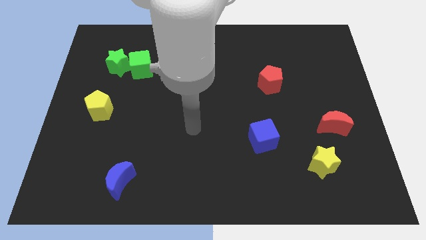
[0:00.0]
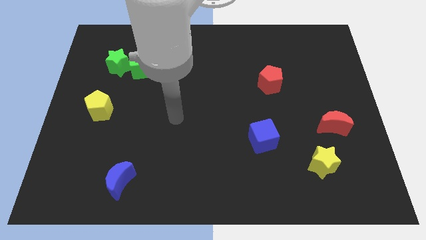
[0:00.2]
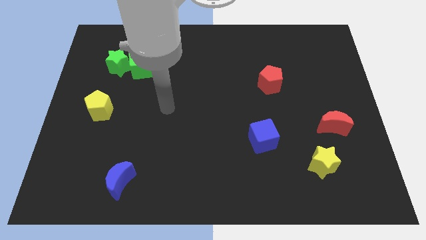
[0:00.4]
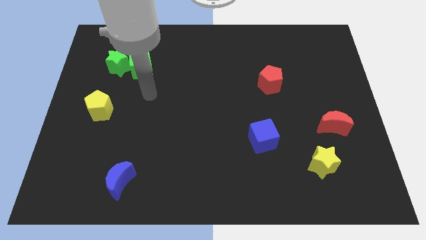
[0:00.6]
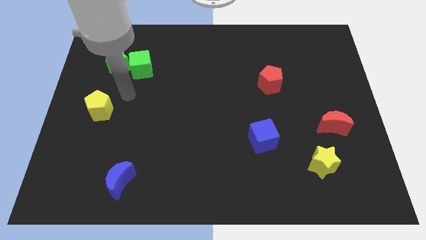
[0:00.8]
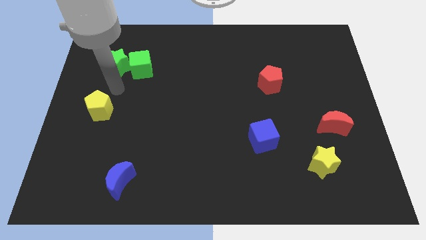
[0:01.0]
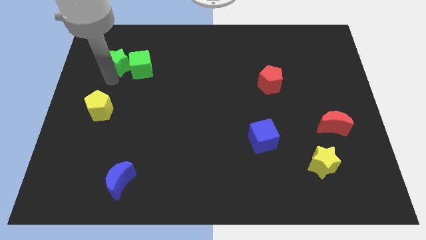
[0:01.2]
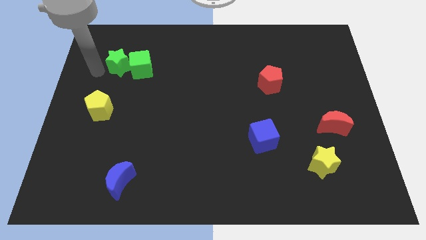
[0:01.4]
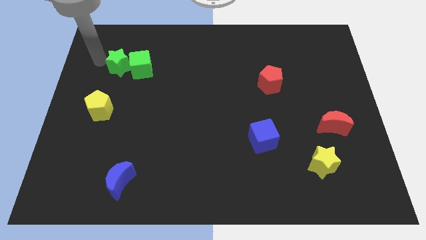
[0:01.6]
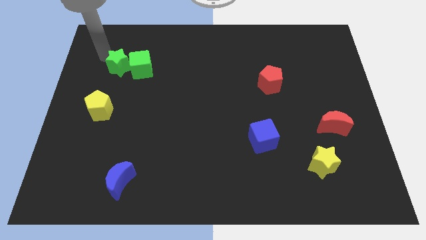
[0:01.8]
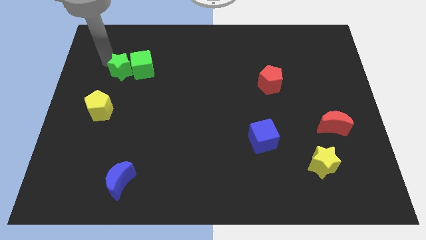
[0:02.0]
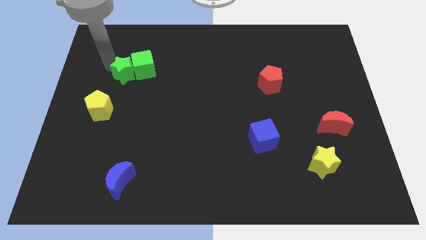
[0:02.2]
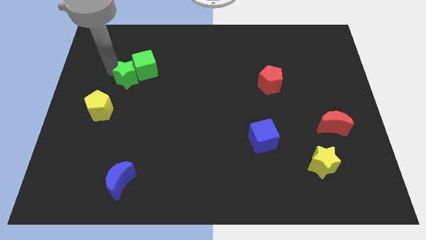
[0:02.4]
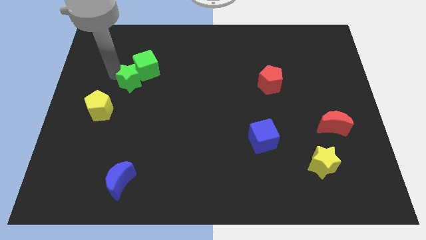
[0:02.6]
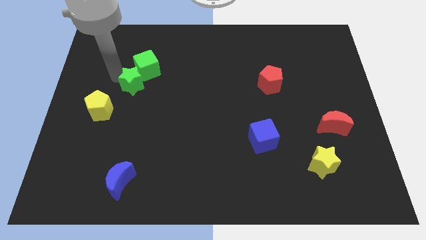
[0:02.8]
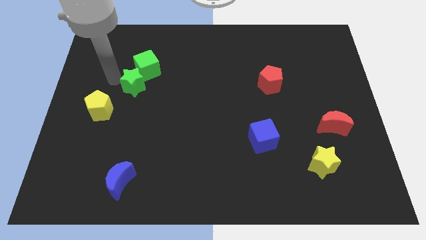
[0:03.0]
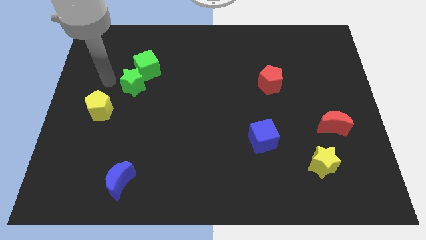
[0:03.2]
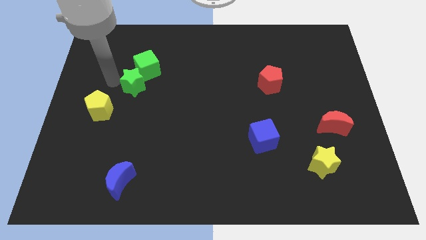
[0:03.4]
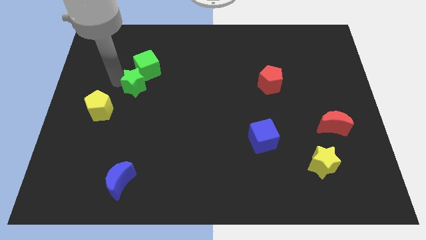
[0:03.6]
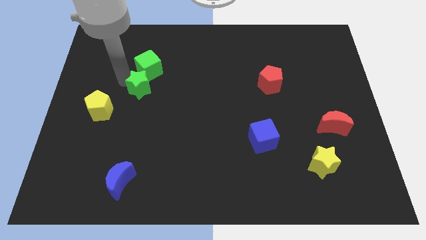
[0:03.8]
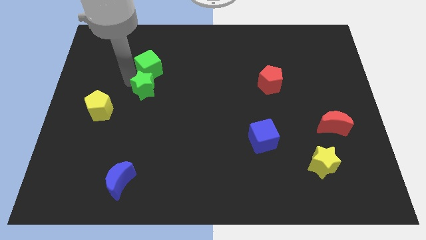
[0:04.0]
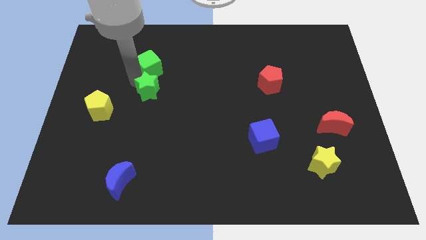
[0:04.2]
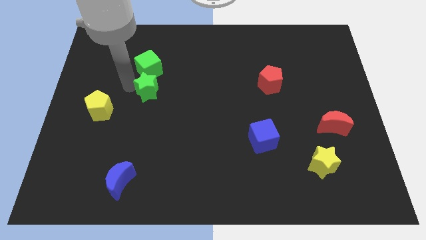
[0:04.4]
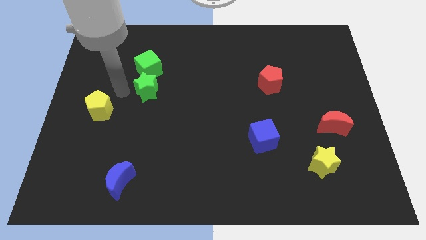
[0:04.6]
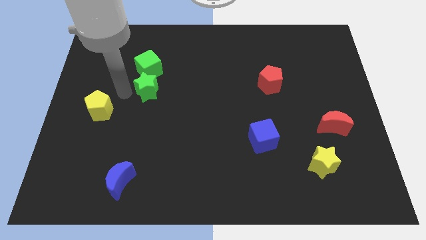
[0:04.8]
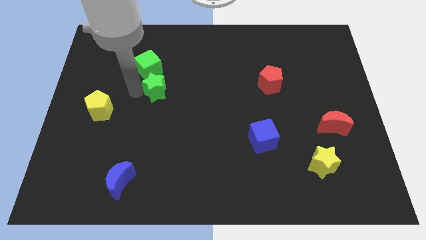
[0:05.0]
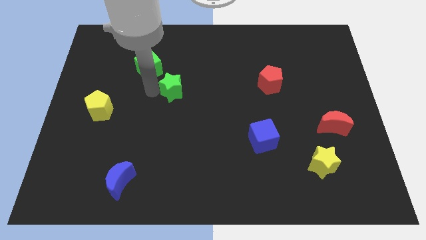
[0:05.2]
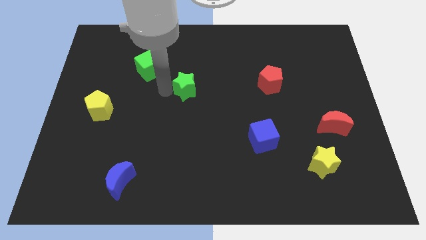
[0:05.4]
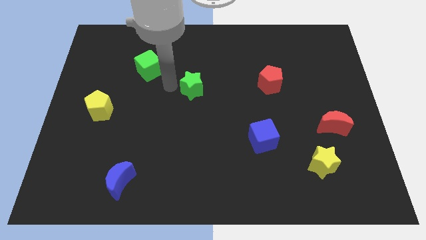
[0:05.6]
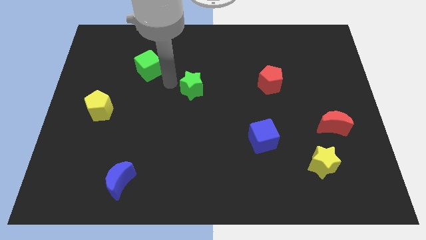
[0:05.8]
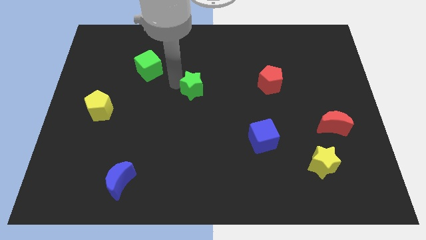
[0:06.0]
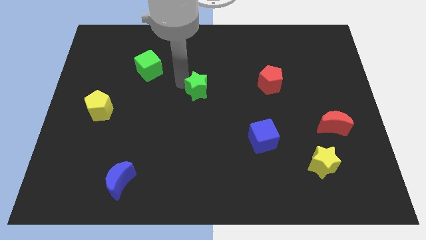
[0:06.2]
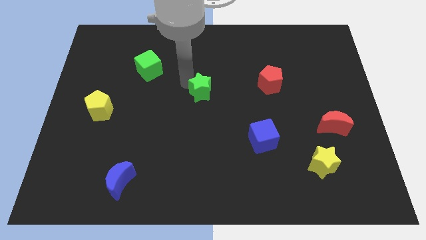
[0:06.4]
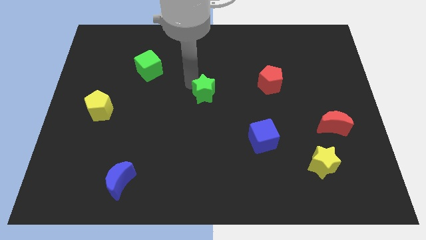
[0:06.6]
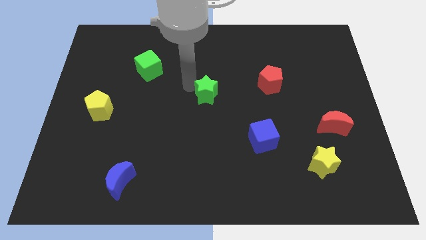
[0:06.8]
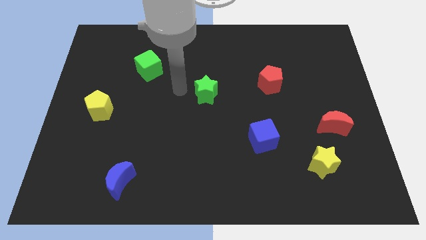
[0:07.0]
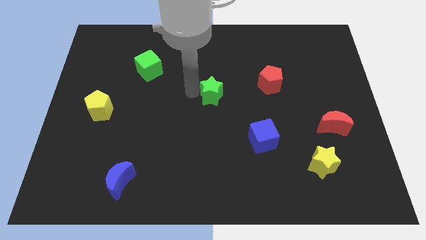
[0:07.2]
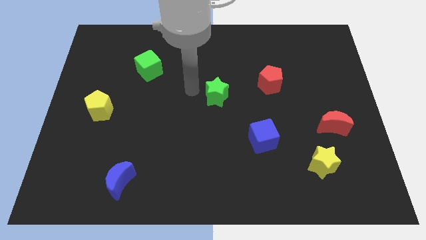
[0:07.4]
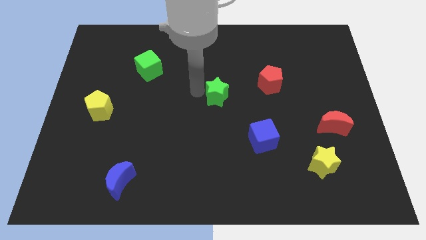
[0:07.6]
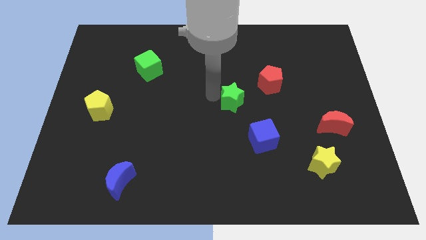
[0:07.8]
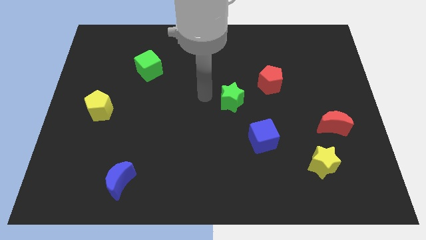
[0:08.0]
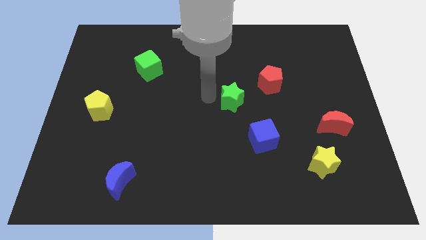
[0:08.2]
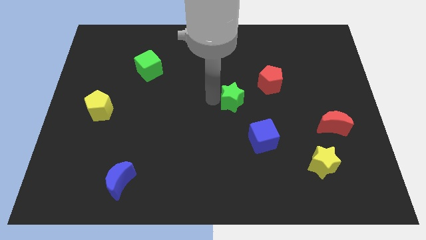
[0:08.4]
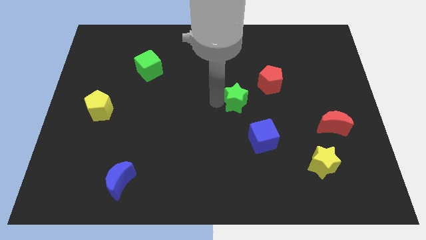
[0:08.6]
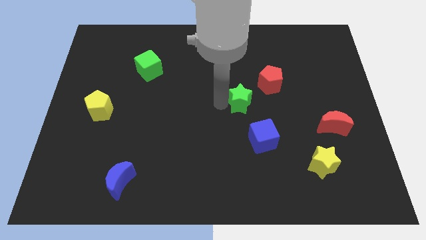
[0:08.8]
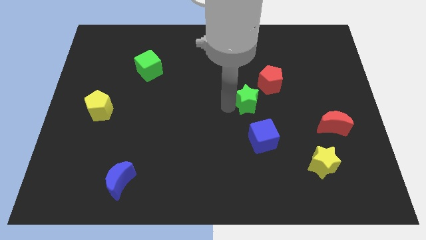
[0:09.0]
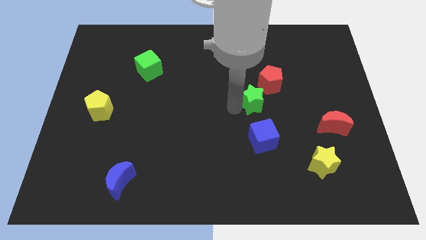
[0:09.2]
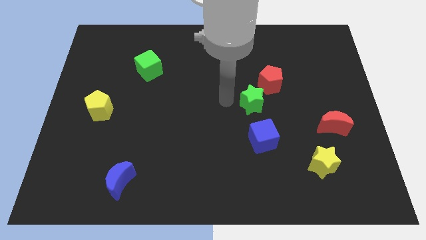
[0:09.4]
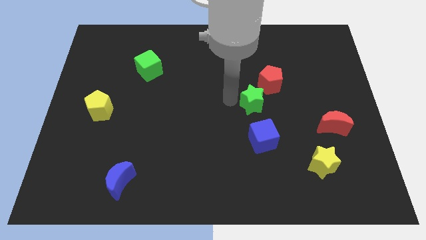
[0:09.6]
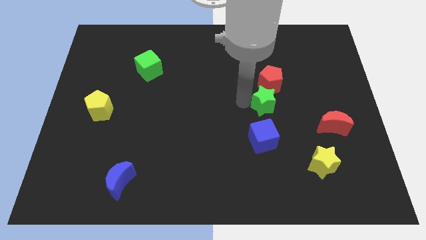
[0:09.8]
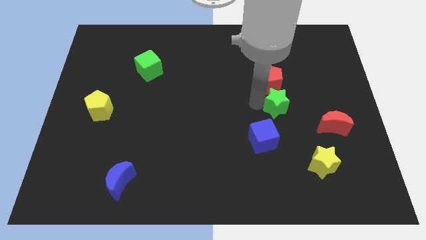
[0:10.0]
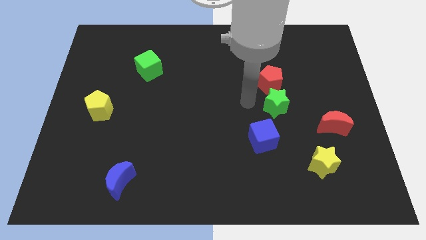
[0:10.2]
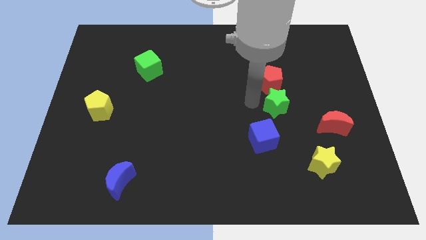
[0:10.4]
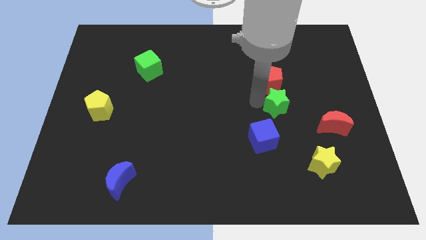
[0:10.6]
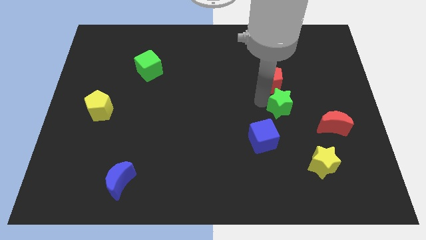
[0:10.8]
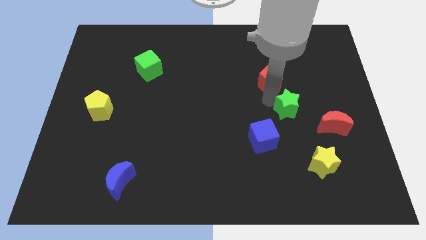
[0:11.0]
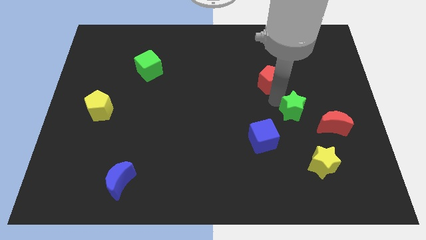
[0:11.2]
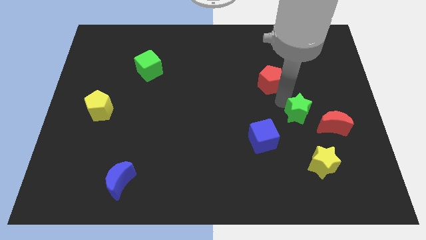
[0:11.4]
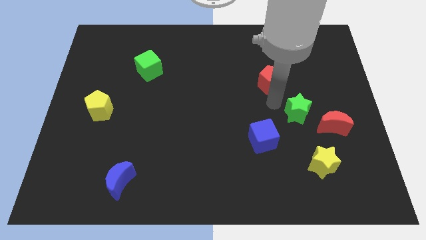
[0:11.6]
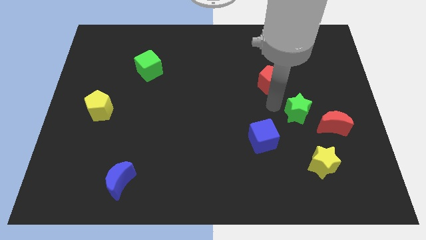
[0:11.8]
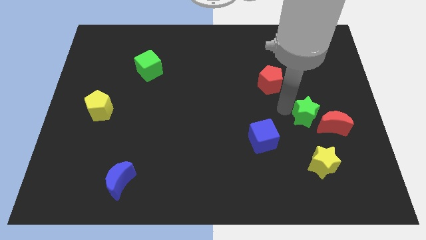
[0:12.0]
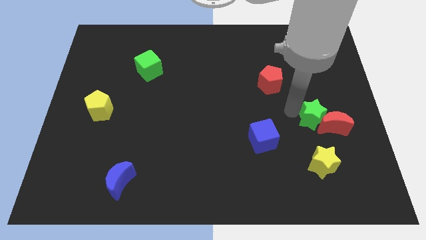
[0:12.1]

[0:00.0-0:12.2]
push the green star next to the red moon

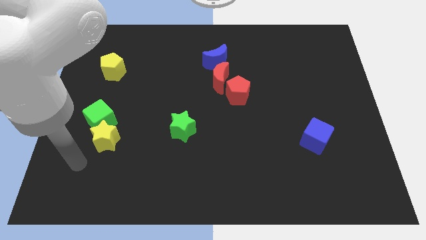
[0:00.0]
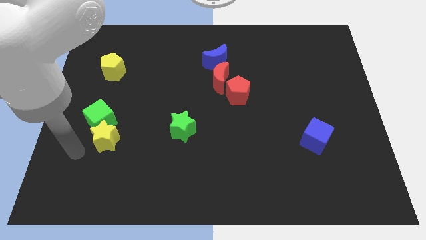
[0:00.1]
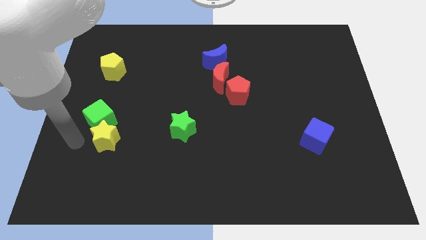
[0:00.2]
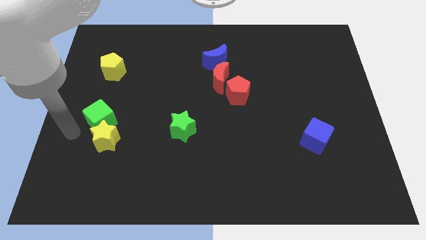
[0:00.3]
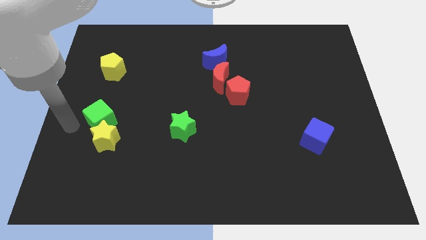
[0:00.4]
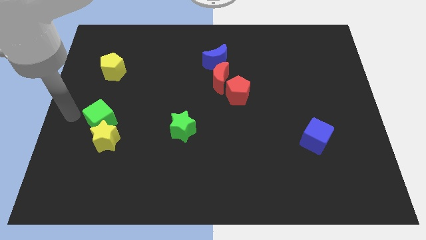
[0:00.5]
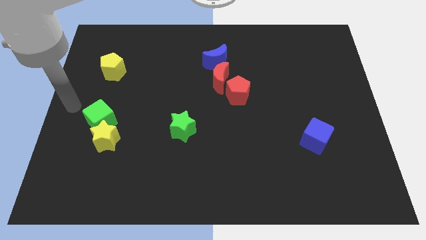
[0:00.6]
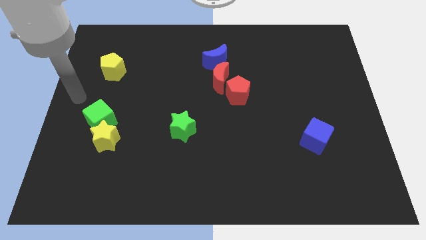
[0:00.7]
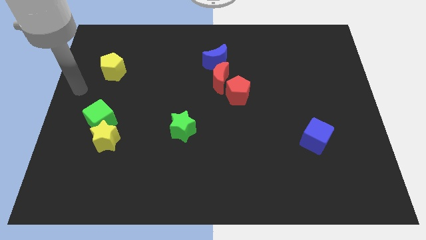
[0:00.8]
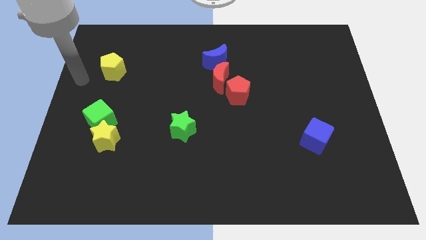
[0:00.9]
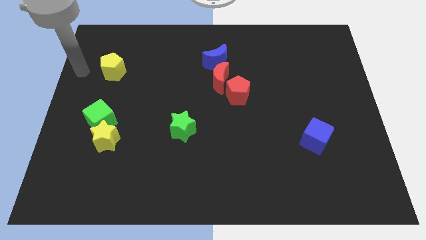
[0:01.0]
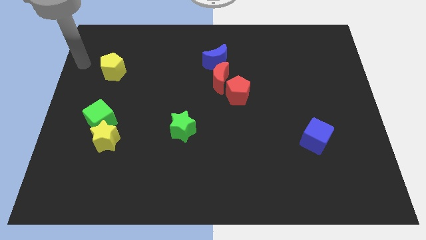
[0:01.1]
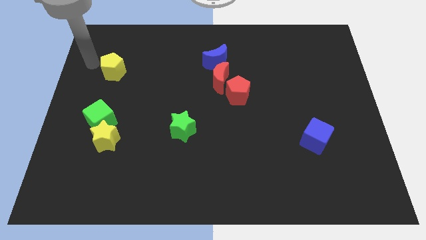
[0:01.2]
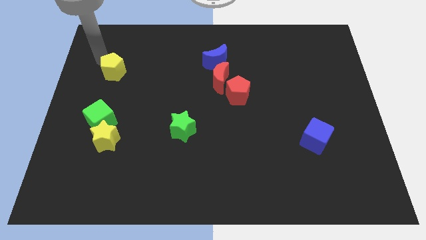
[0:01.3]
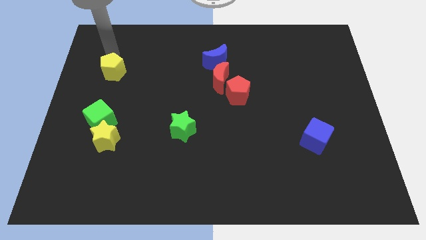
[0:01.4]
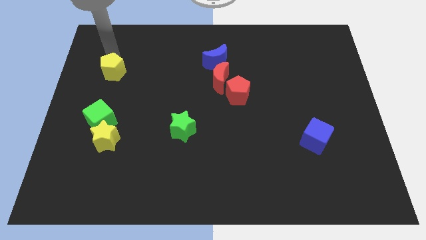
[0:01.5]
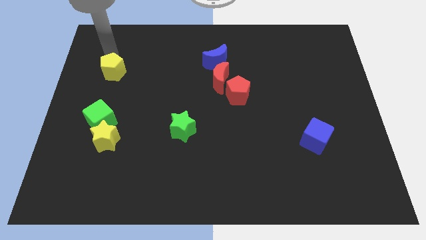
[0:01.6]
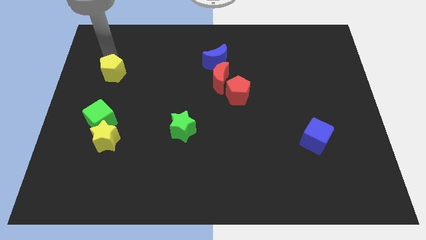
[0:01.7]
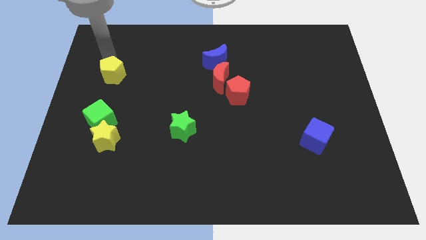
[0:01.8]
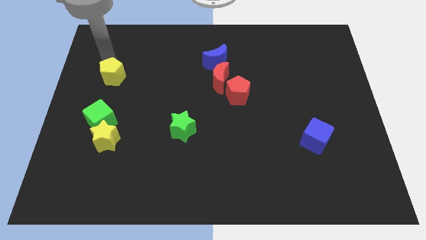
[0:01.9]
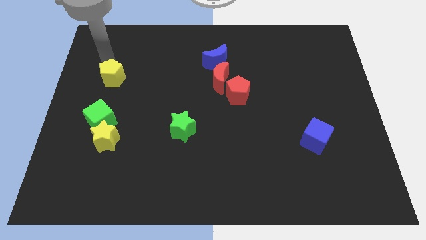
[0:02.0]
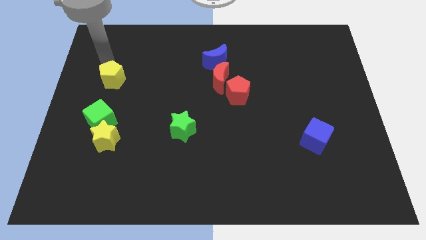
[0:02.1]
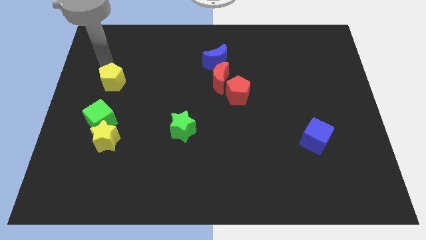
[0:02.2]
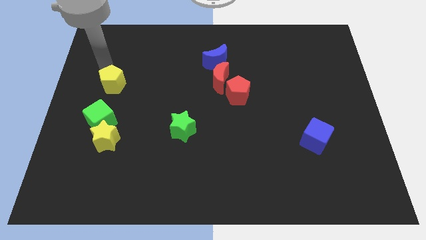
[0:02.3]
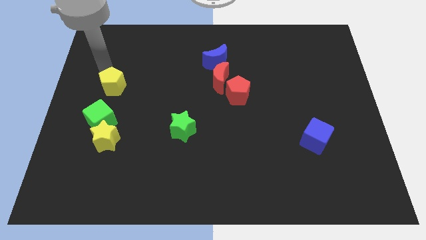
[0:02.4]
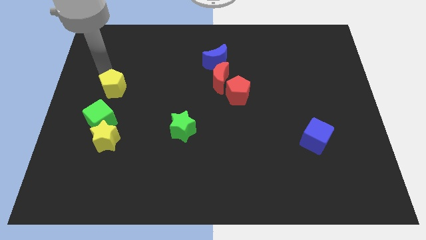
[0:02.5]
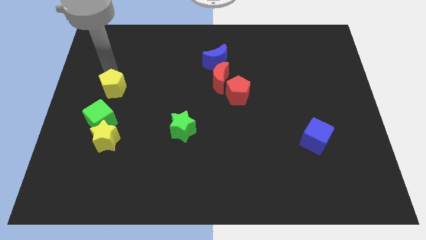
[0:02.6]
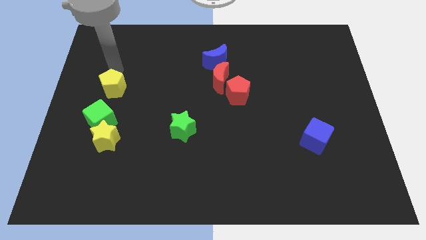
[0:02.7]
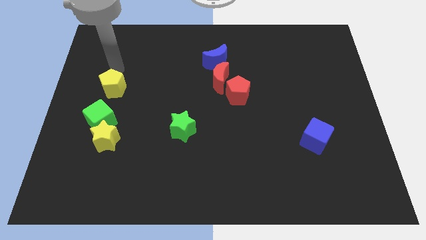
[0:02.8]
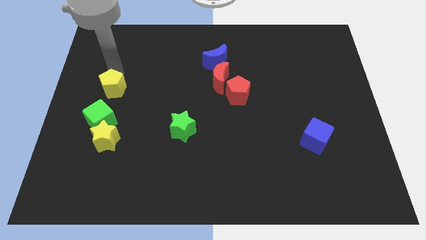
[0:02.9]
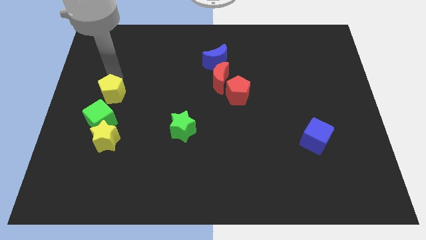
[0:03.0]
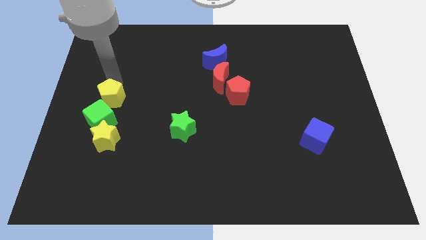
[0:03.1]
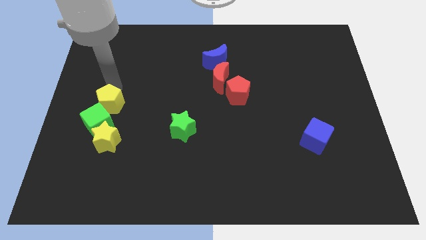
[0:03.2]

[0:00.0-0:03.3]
put the yellow pentagon to the green cube
